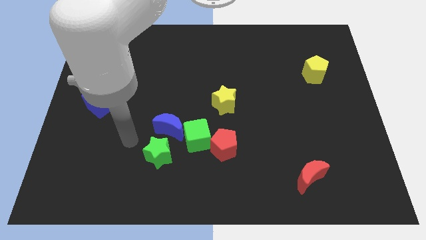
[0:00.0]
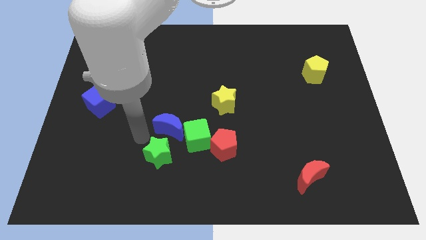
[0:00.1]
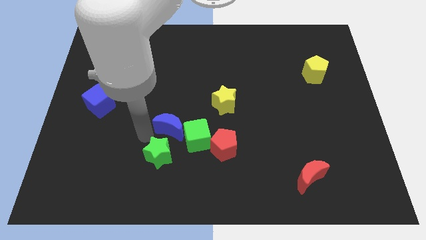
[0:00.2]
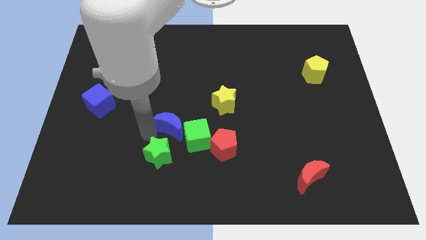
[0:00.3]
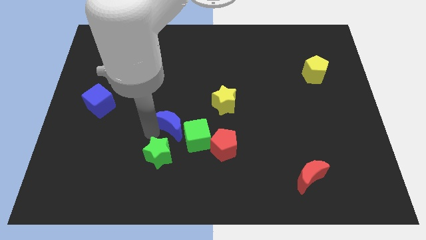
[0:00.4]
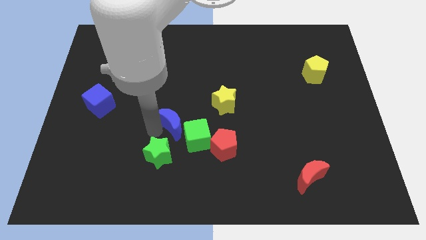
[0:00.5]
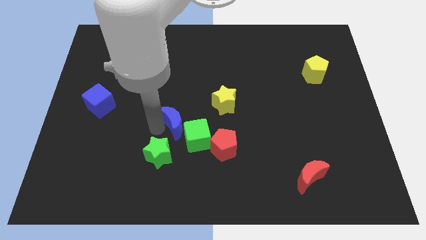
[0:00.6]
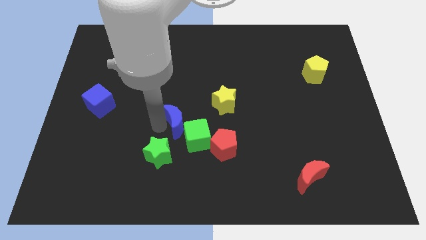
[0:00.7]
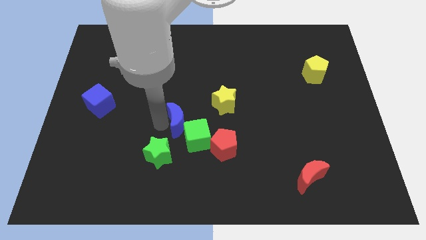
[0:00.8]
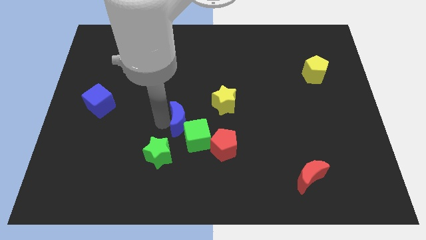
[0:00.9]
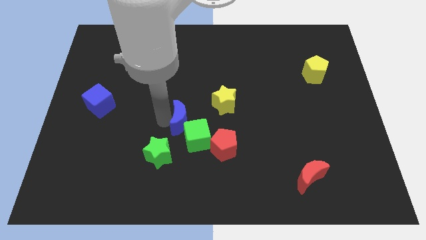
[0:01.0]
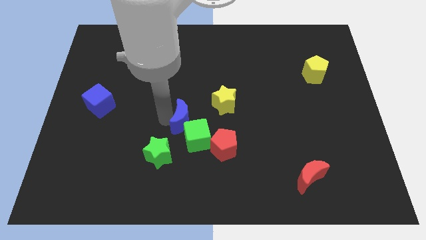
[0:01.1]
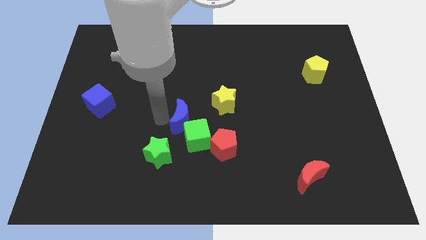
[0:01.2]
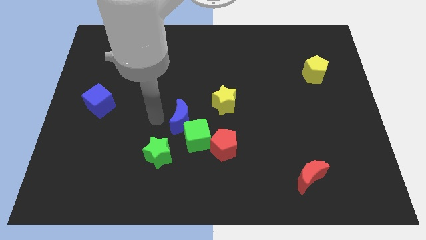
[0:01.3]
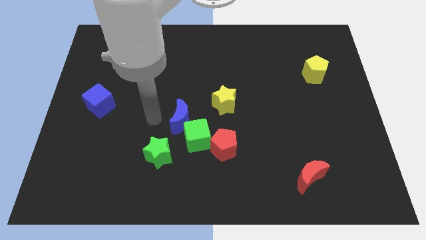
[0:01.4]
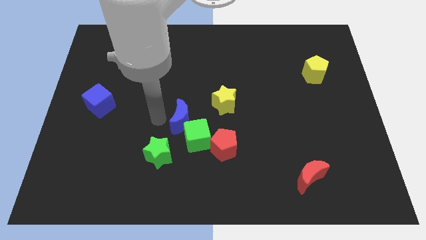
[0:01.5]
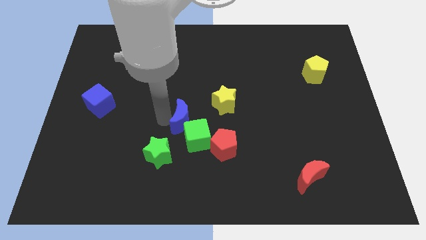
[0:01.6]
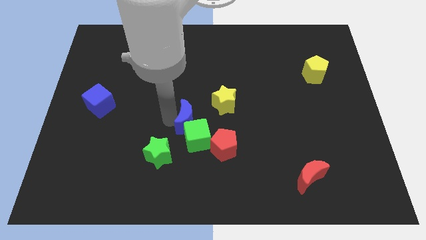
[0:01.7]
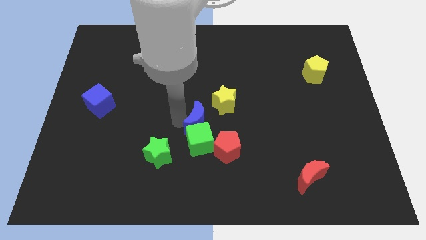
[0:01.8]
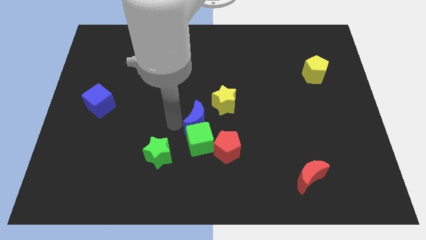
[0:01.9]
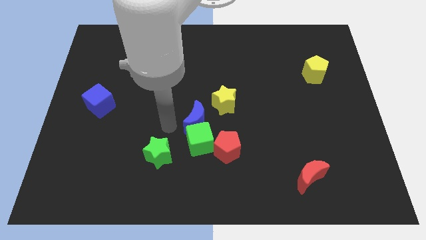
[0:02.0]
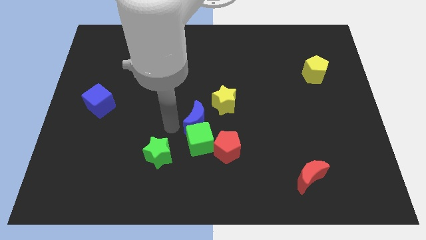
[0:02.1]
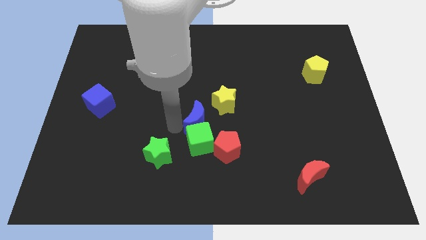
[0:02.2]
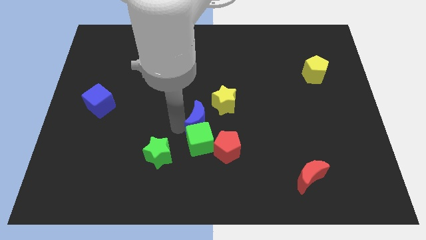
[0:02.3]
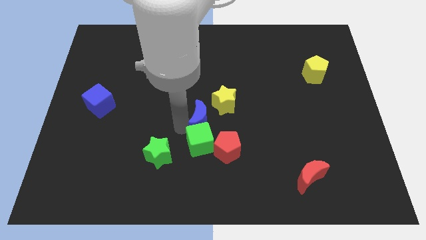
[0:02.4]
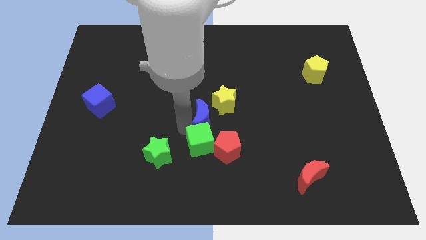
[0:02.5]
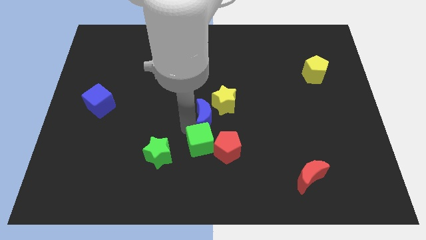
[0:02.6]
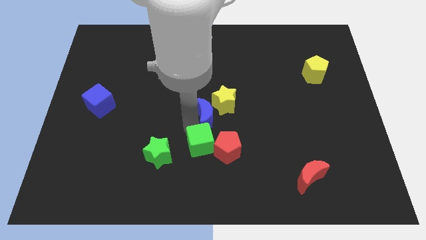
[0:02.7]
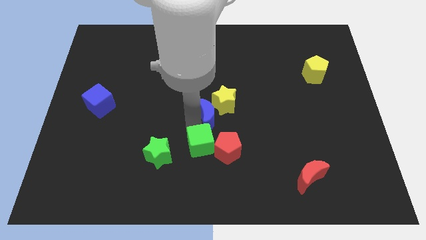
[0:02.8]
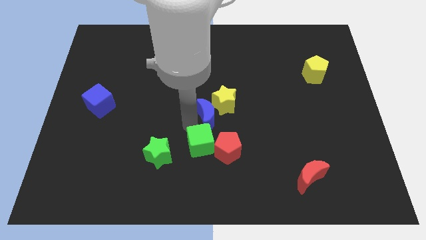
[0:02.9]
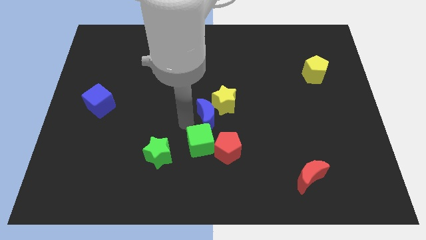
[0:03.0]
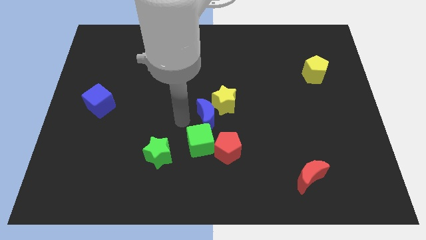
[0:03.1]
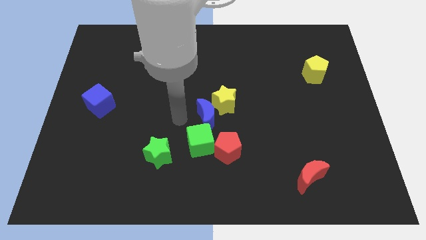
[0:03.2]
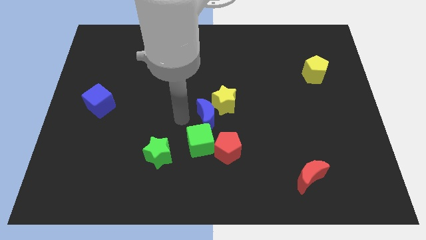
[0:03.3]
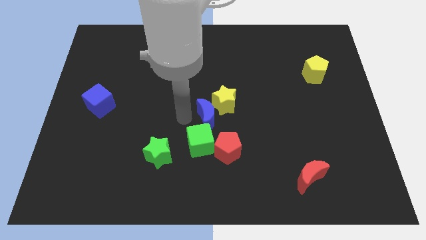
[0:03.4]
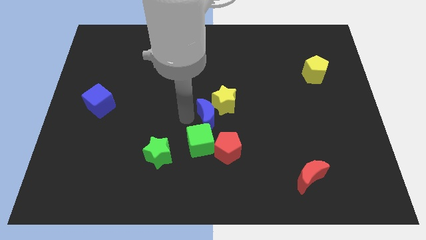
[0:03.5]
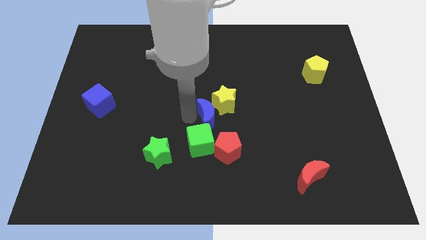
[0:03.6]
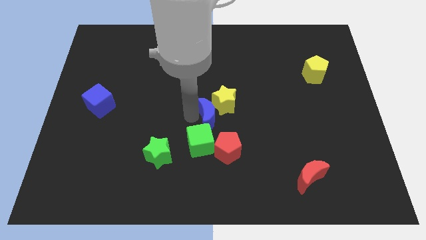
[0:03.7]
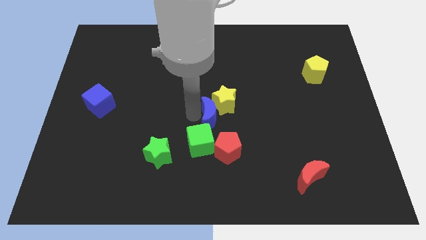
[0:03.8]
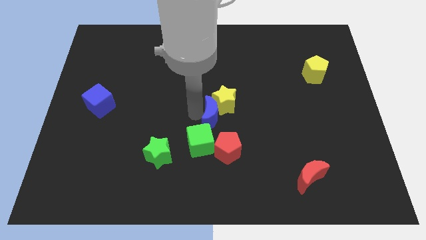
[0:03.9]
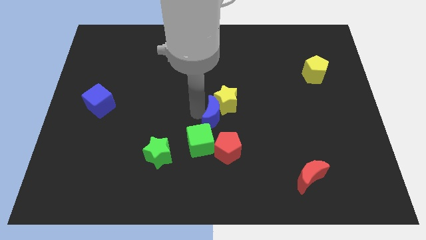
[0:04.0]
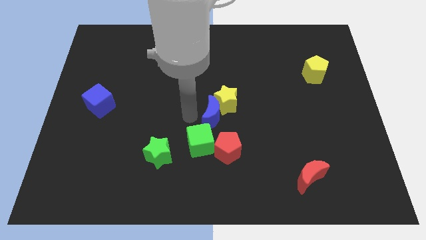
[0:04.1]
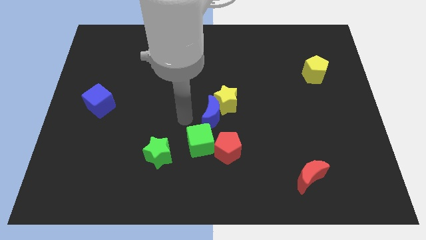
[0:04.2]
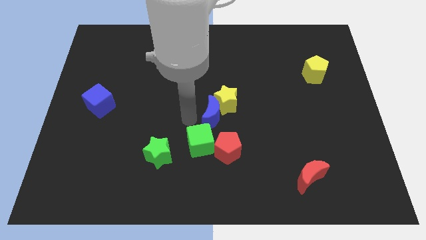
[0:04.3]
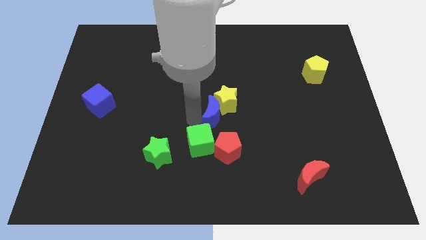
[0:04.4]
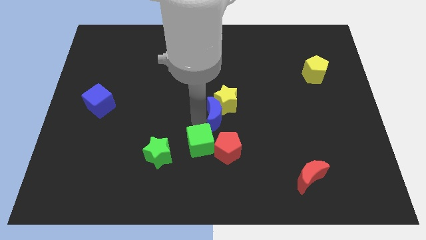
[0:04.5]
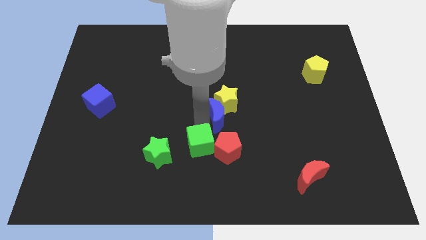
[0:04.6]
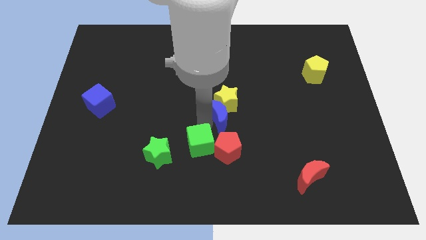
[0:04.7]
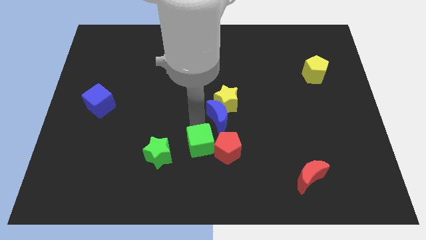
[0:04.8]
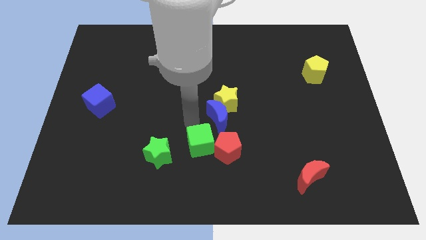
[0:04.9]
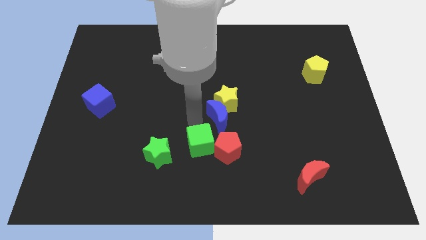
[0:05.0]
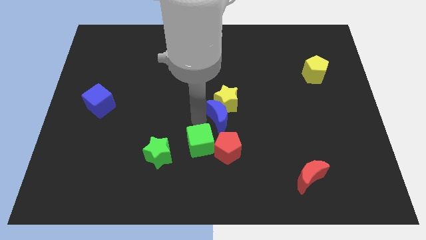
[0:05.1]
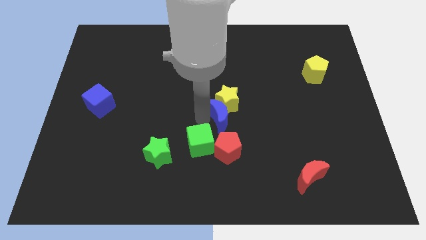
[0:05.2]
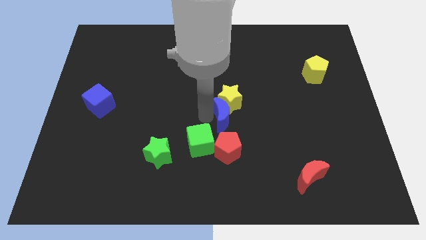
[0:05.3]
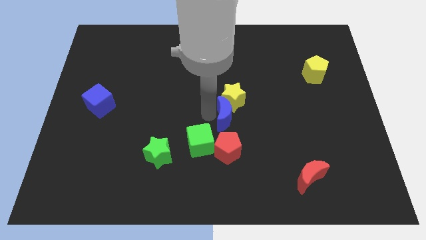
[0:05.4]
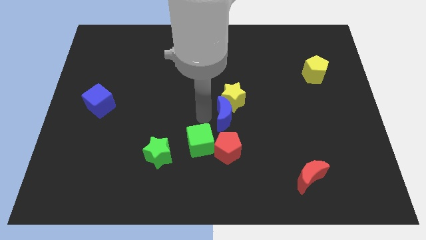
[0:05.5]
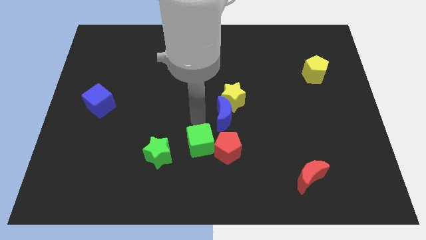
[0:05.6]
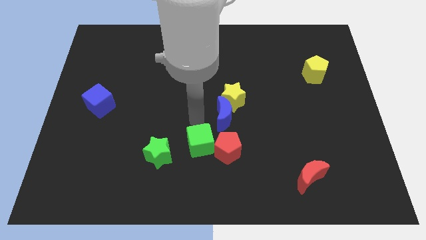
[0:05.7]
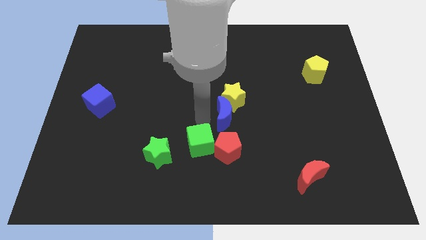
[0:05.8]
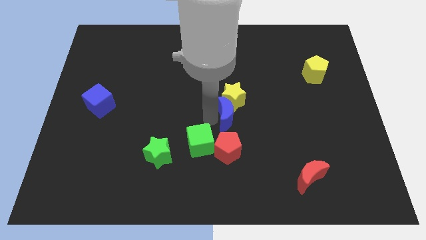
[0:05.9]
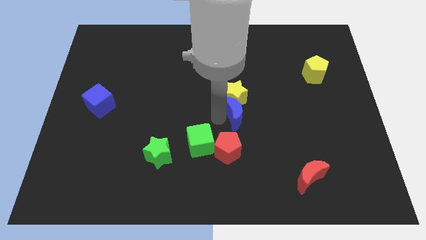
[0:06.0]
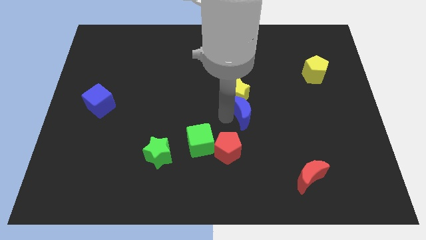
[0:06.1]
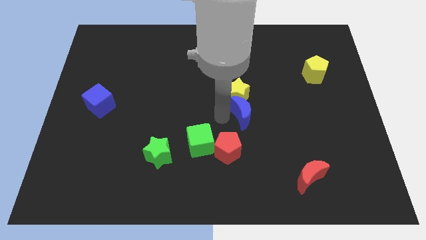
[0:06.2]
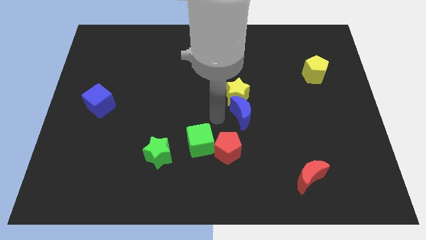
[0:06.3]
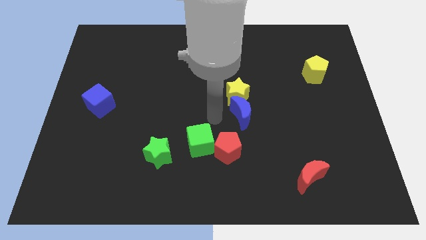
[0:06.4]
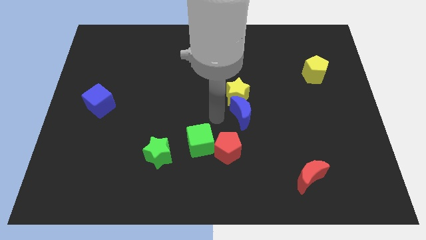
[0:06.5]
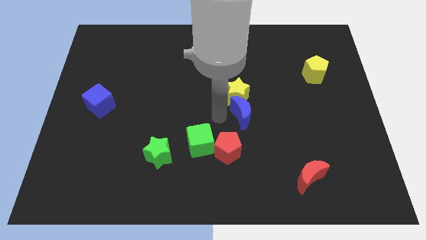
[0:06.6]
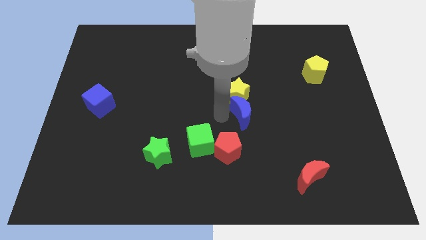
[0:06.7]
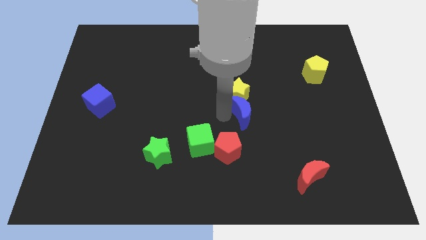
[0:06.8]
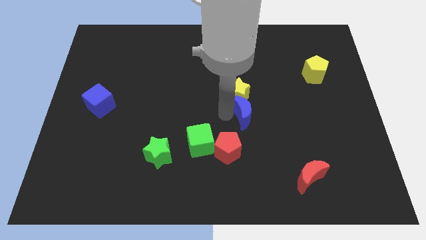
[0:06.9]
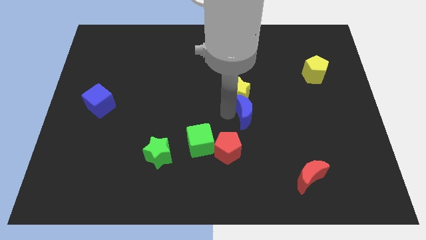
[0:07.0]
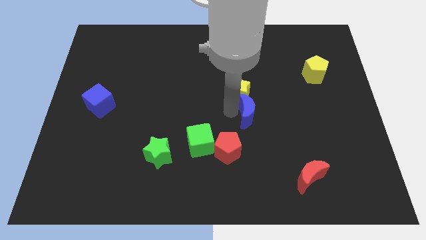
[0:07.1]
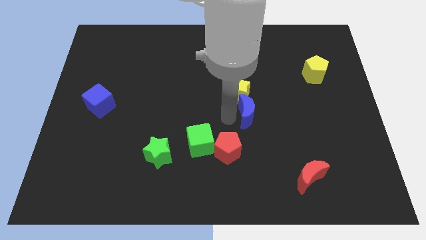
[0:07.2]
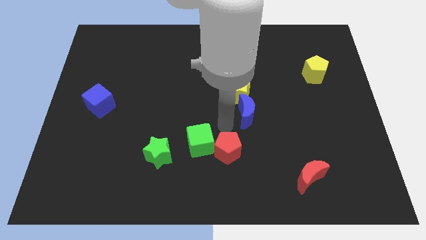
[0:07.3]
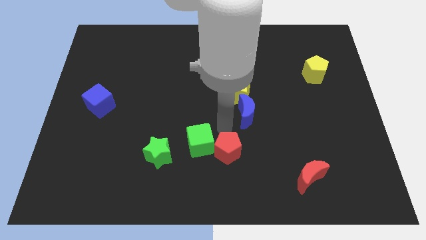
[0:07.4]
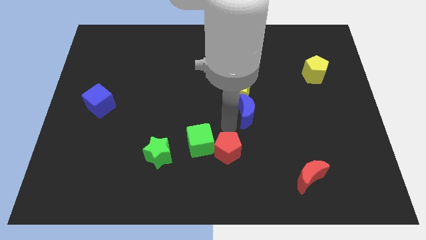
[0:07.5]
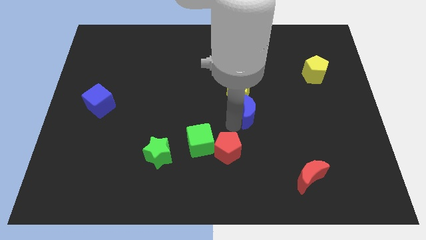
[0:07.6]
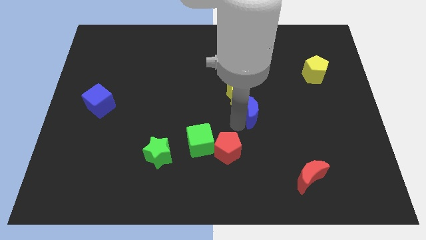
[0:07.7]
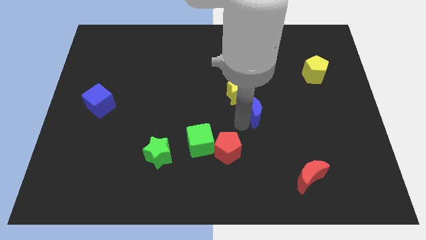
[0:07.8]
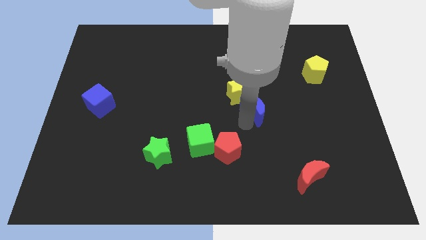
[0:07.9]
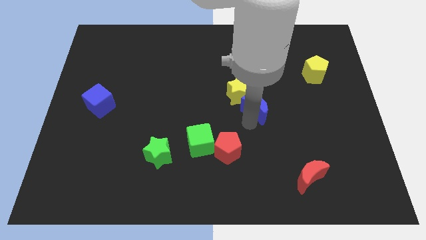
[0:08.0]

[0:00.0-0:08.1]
slide the blue moon to the right side of the yellow star
